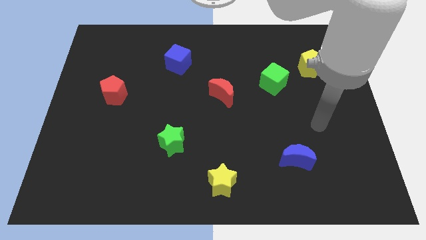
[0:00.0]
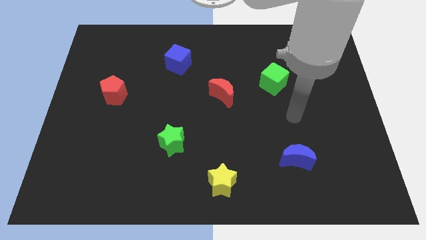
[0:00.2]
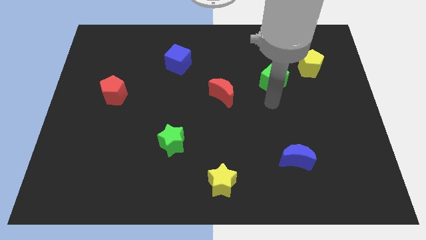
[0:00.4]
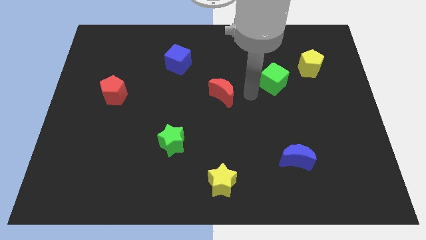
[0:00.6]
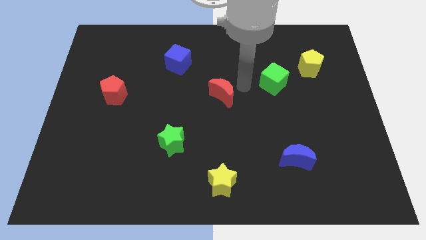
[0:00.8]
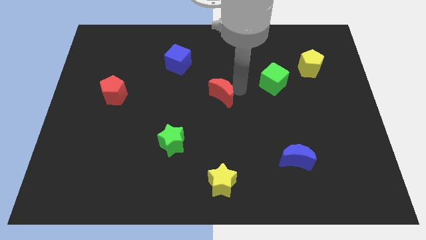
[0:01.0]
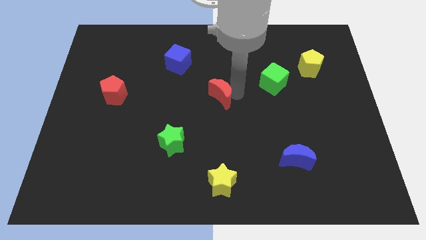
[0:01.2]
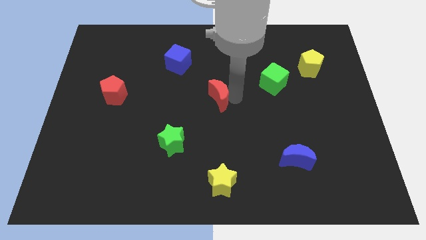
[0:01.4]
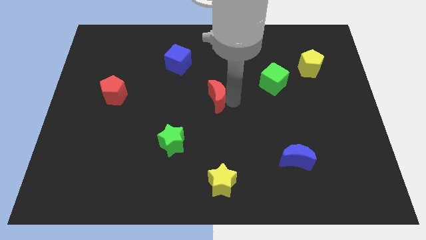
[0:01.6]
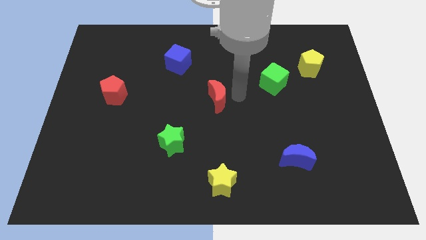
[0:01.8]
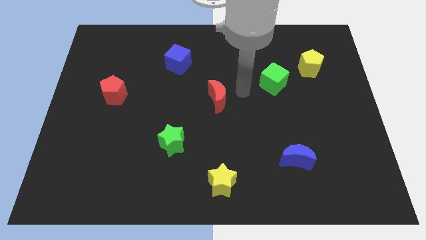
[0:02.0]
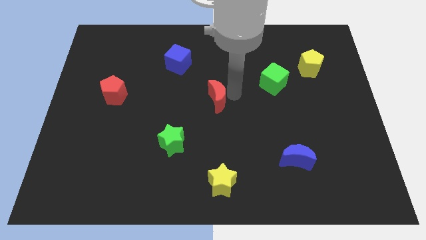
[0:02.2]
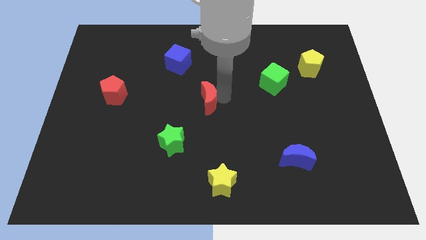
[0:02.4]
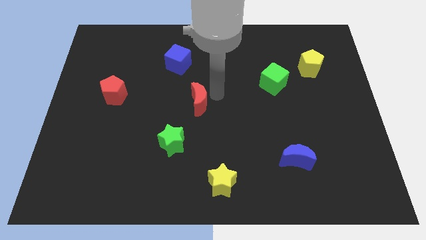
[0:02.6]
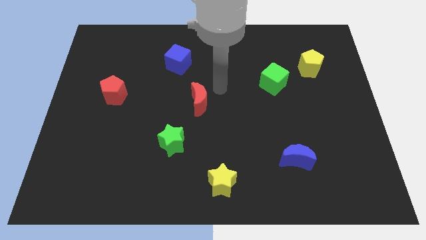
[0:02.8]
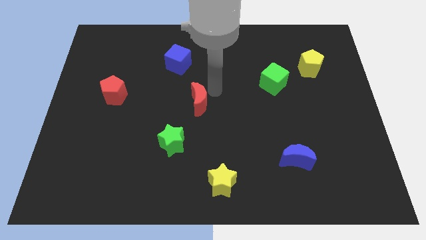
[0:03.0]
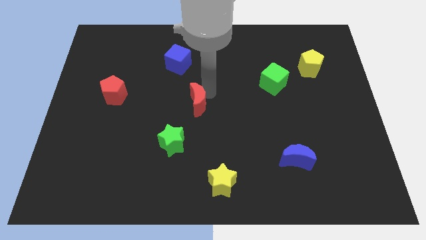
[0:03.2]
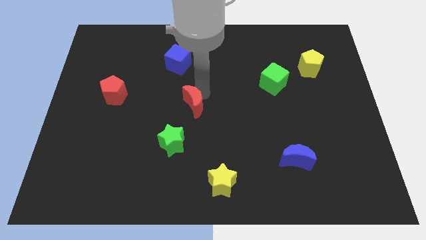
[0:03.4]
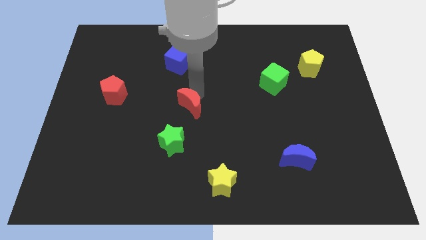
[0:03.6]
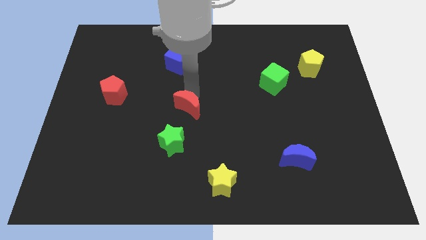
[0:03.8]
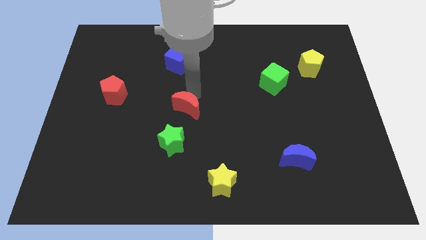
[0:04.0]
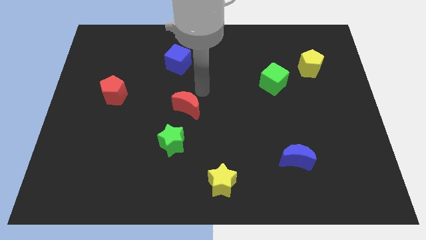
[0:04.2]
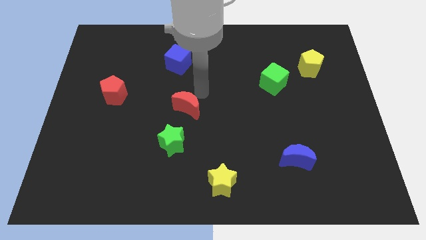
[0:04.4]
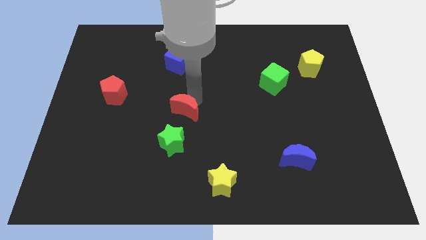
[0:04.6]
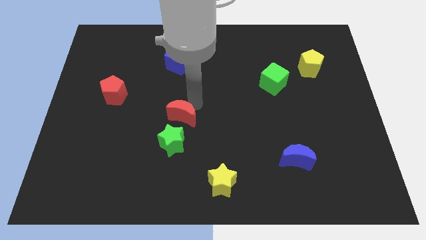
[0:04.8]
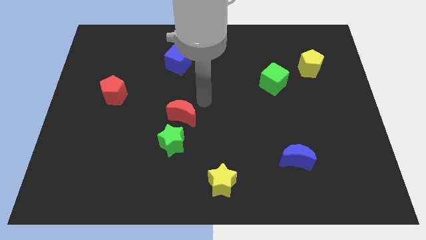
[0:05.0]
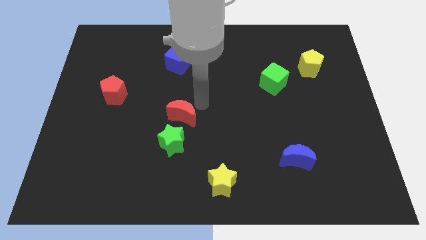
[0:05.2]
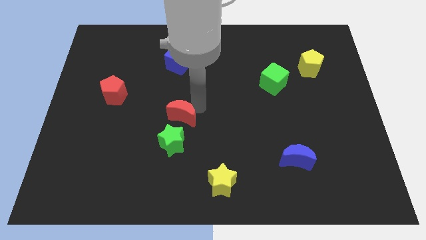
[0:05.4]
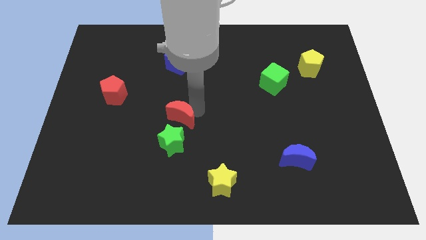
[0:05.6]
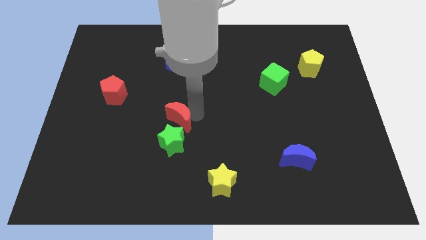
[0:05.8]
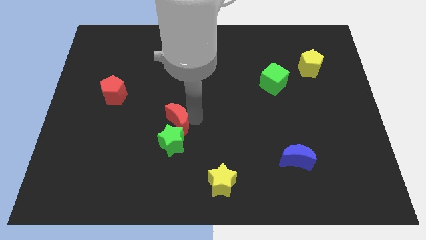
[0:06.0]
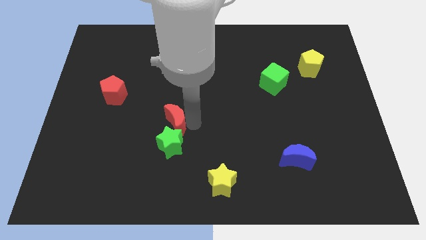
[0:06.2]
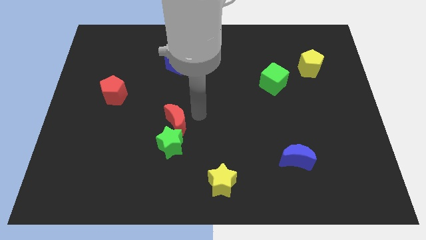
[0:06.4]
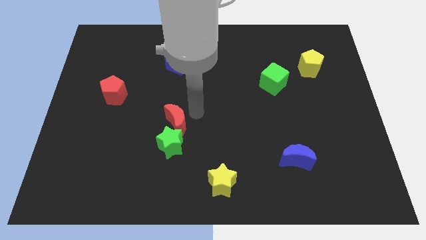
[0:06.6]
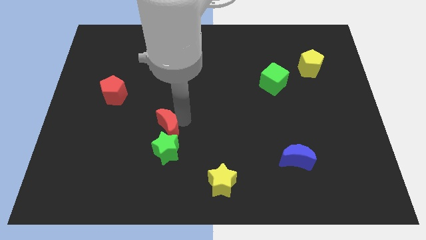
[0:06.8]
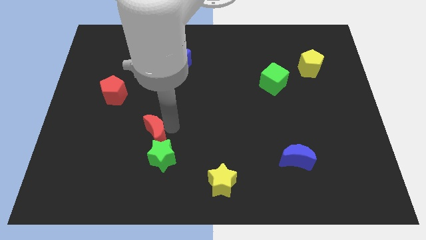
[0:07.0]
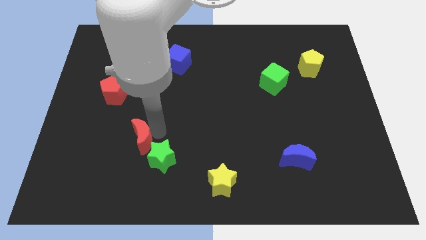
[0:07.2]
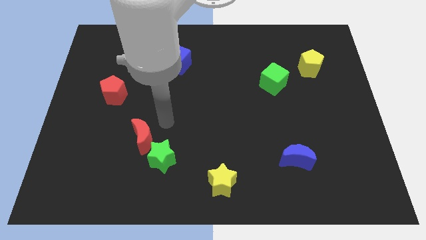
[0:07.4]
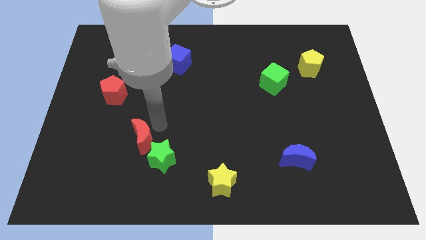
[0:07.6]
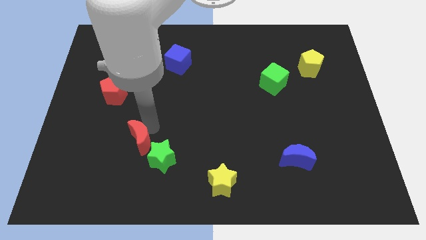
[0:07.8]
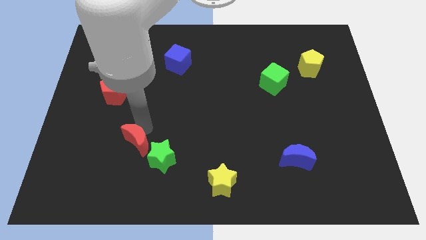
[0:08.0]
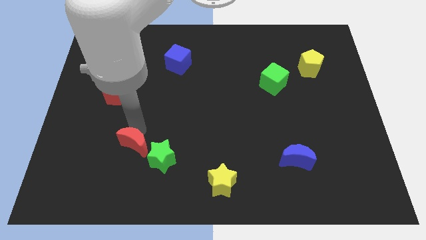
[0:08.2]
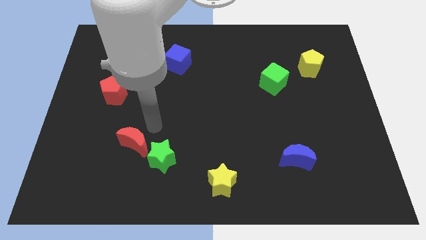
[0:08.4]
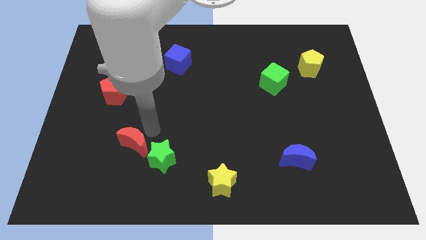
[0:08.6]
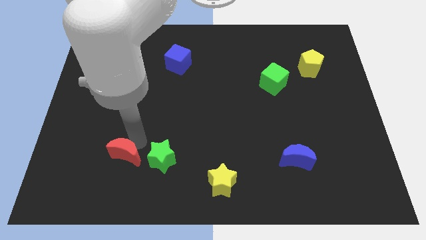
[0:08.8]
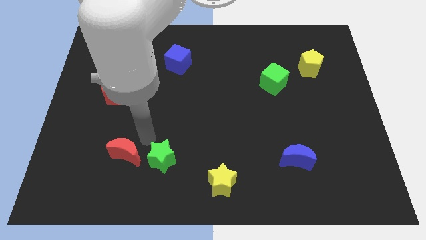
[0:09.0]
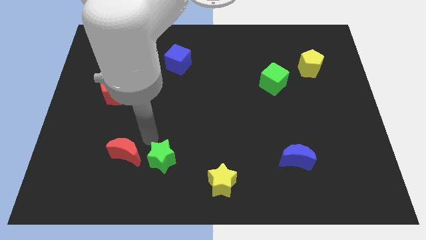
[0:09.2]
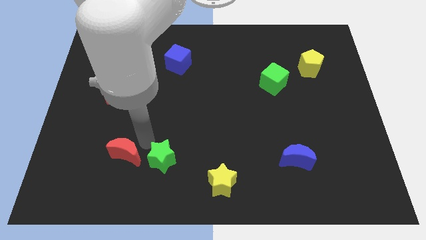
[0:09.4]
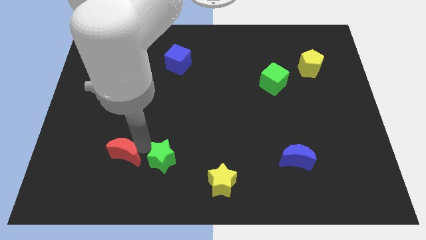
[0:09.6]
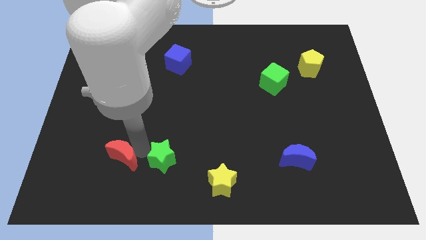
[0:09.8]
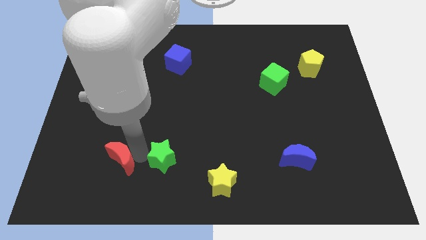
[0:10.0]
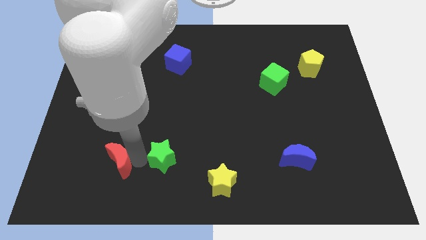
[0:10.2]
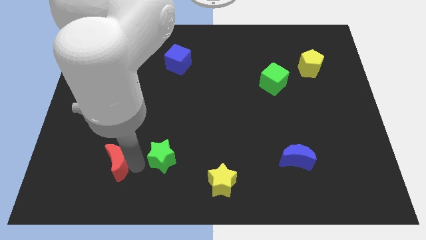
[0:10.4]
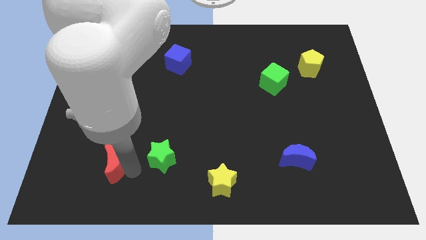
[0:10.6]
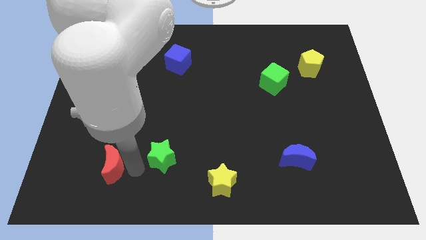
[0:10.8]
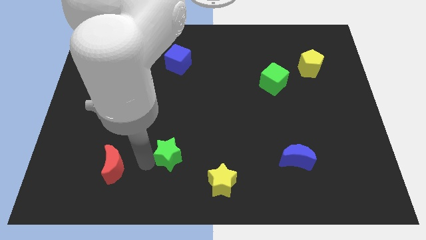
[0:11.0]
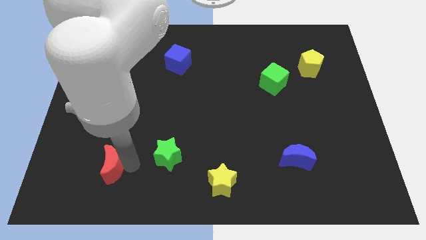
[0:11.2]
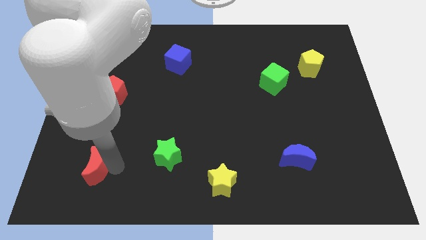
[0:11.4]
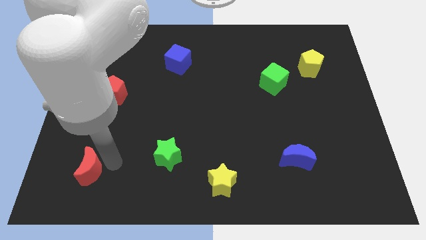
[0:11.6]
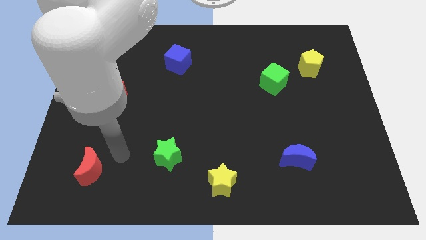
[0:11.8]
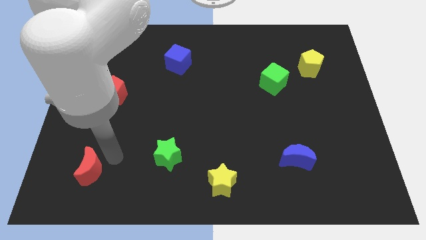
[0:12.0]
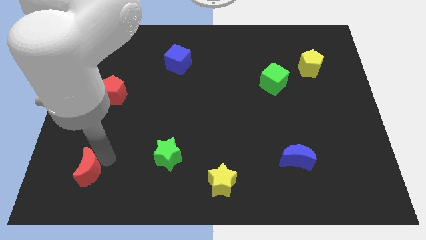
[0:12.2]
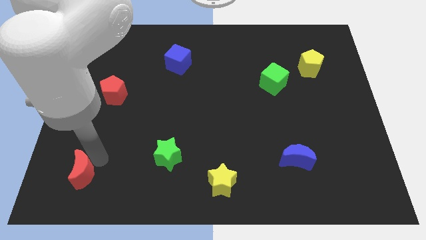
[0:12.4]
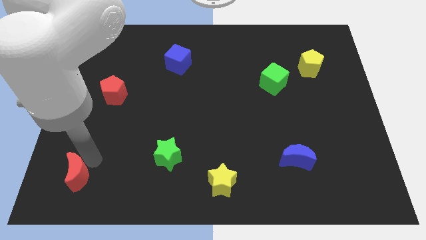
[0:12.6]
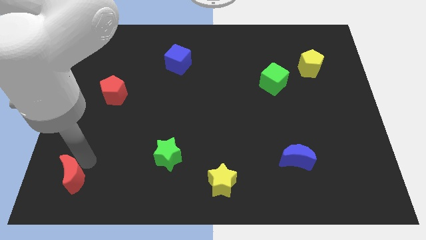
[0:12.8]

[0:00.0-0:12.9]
move the red moon to the bottom left
